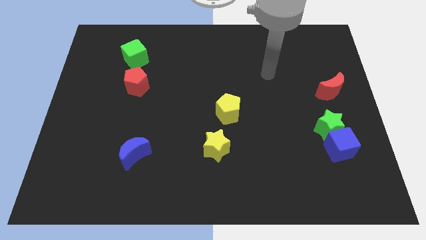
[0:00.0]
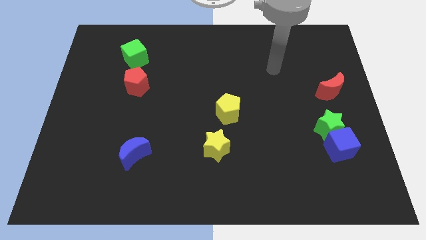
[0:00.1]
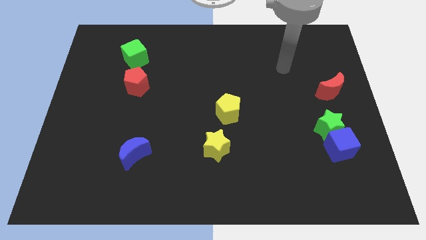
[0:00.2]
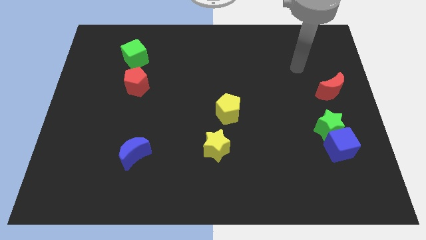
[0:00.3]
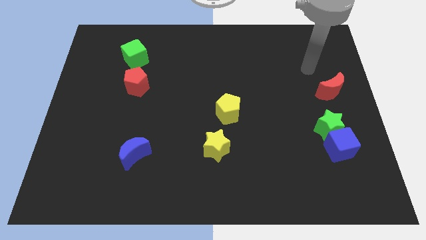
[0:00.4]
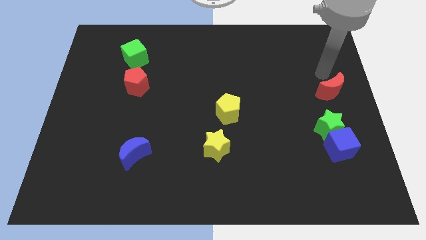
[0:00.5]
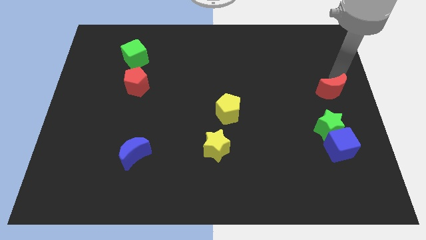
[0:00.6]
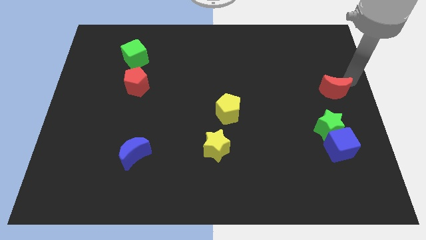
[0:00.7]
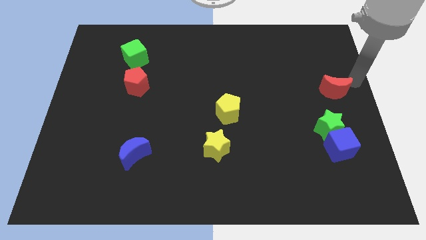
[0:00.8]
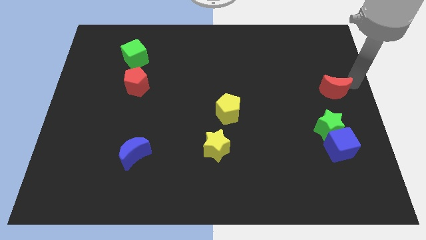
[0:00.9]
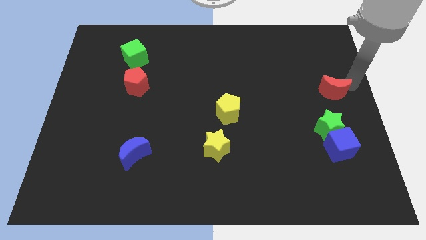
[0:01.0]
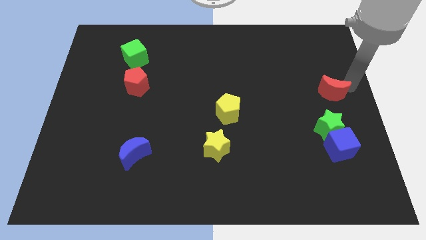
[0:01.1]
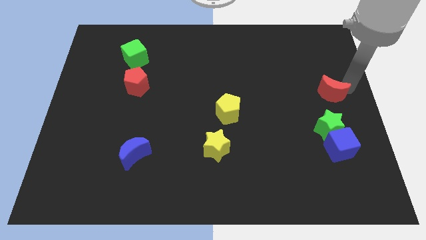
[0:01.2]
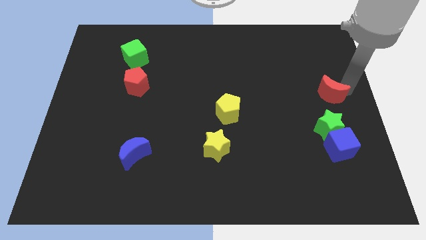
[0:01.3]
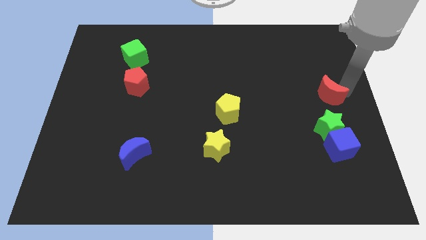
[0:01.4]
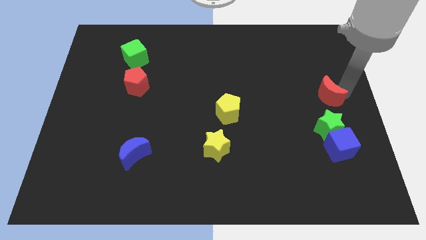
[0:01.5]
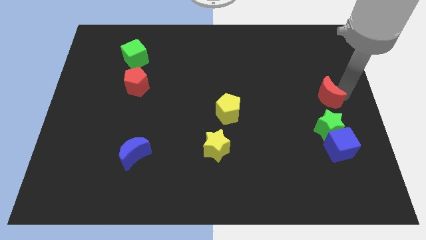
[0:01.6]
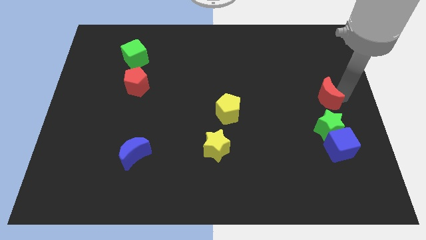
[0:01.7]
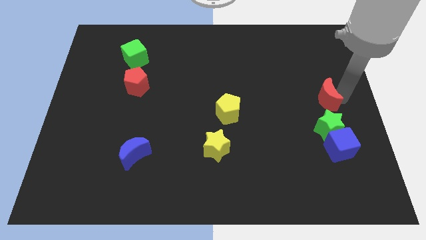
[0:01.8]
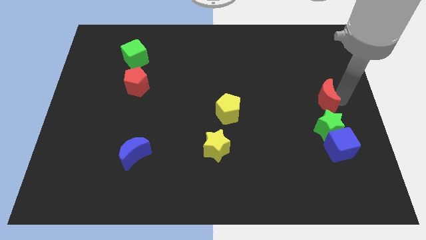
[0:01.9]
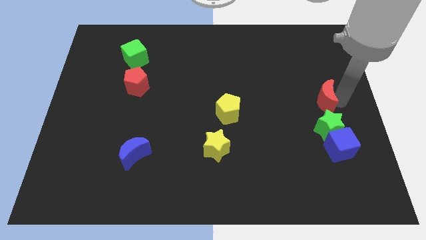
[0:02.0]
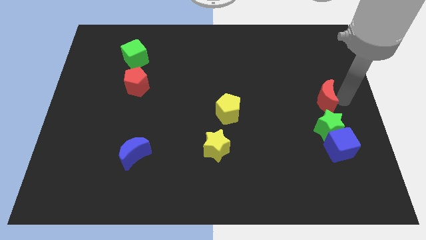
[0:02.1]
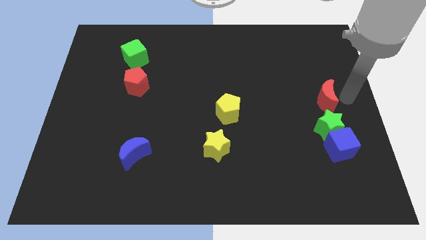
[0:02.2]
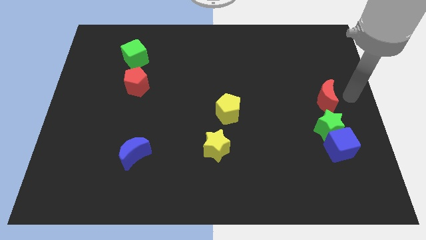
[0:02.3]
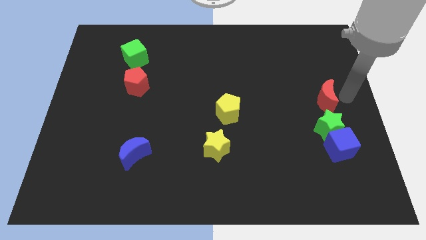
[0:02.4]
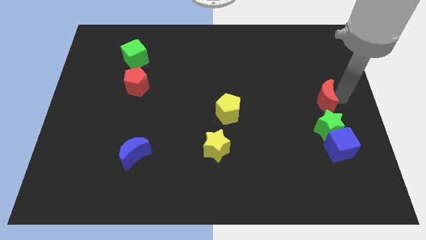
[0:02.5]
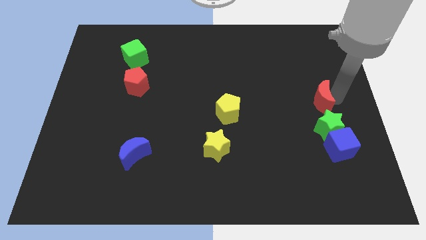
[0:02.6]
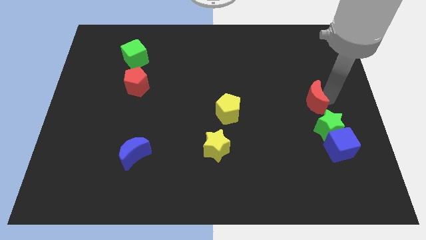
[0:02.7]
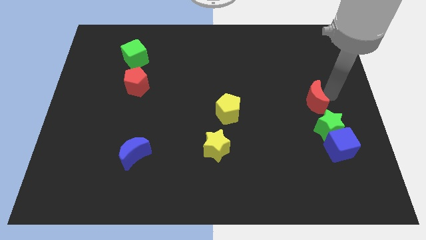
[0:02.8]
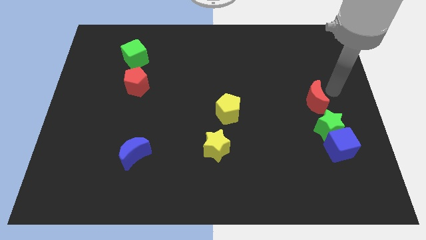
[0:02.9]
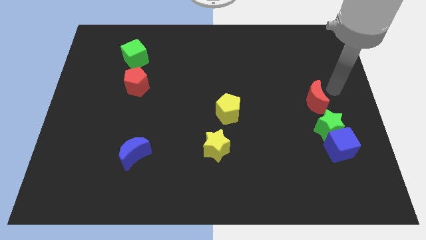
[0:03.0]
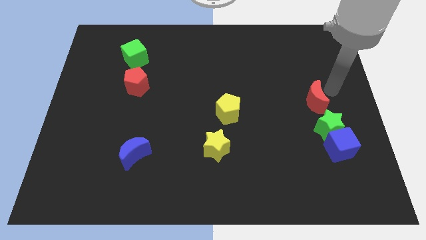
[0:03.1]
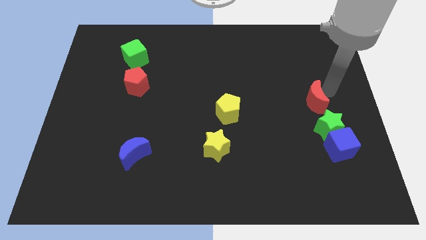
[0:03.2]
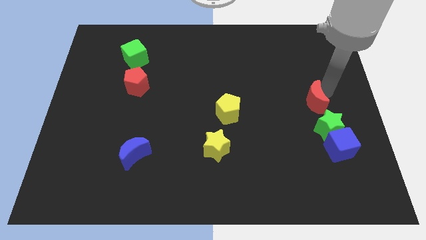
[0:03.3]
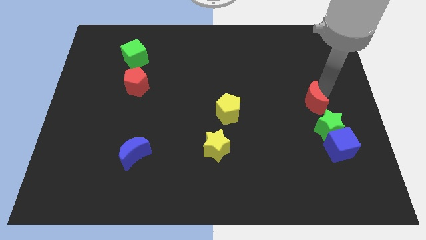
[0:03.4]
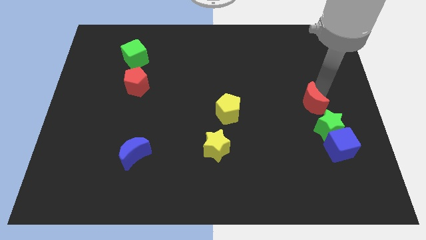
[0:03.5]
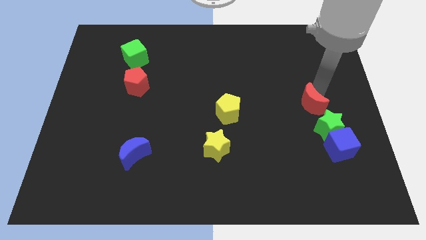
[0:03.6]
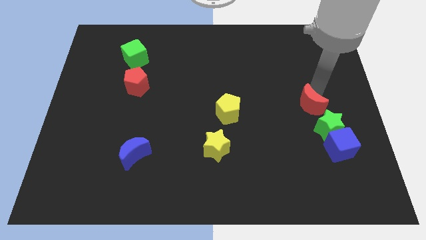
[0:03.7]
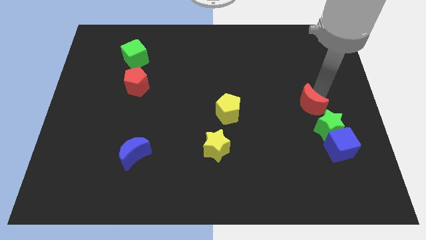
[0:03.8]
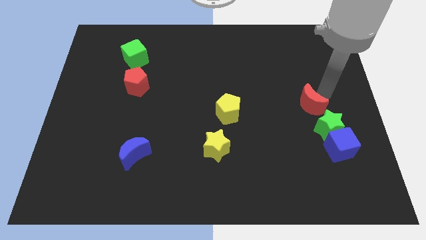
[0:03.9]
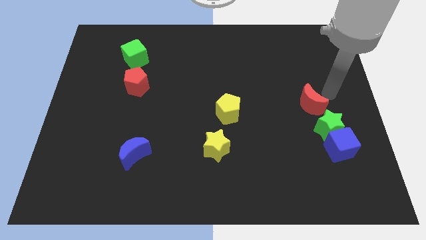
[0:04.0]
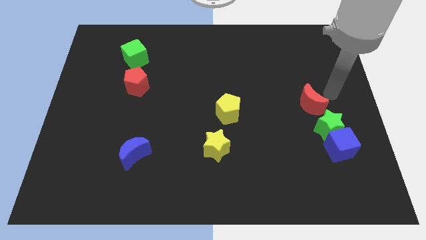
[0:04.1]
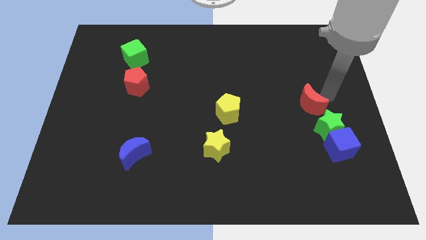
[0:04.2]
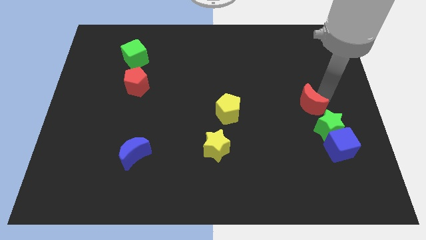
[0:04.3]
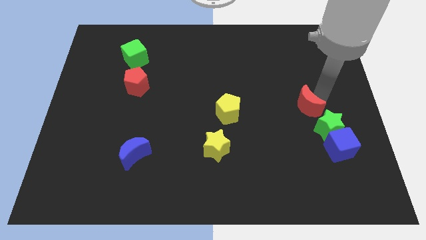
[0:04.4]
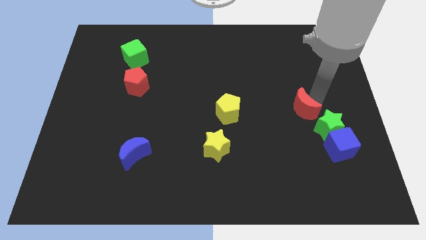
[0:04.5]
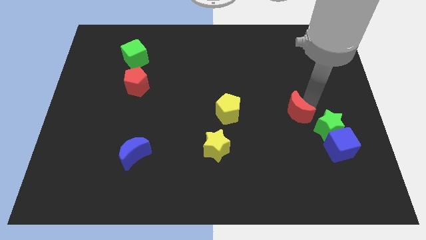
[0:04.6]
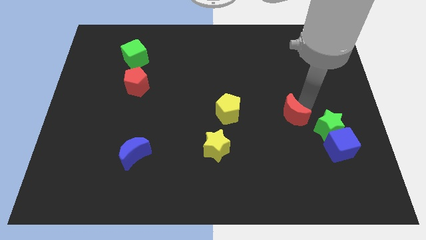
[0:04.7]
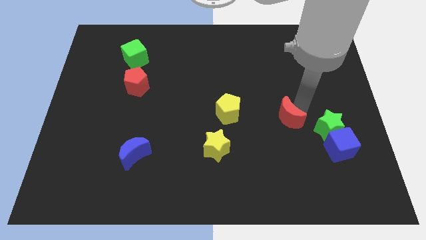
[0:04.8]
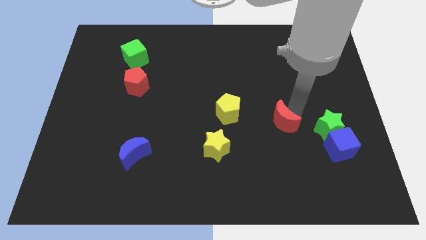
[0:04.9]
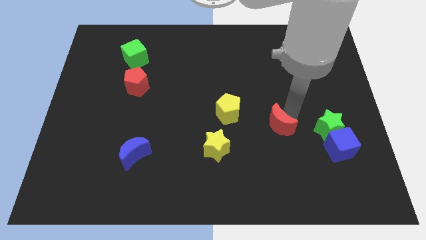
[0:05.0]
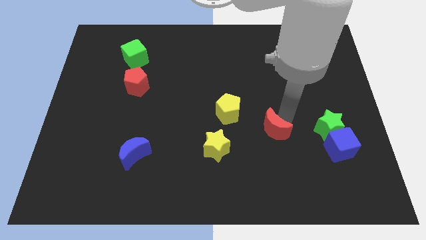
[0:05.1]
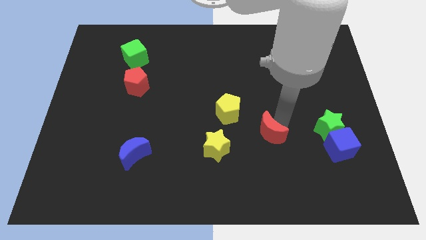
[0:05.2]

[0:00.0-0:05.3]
slide the red moon diagonally down and left

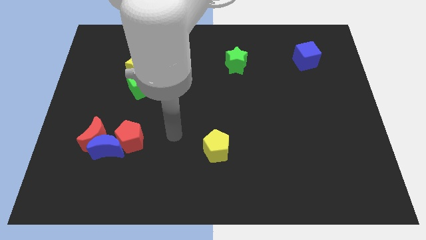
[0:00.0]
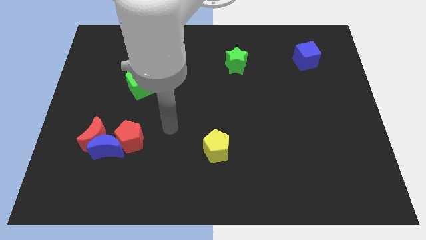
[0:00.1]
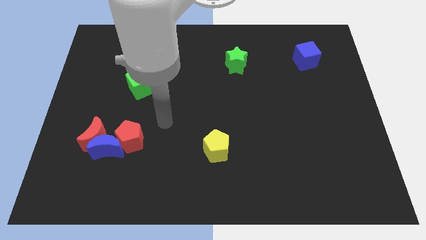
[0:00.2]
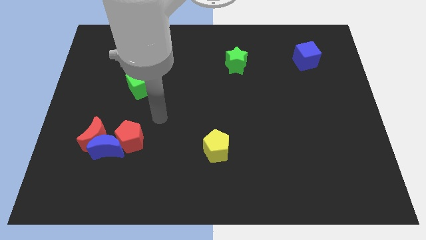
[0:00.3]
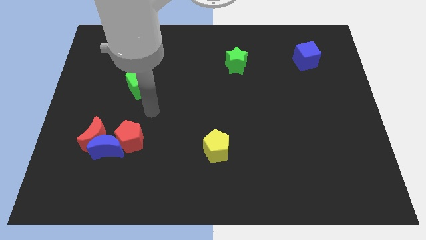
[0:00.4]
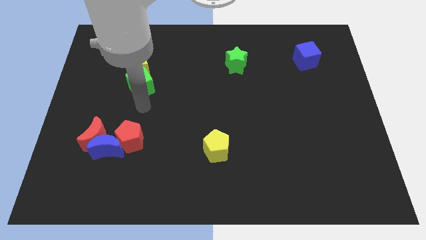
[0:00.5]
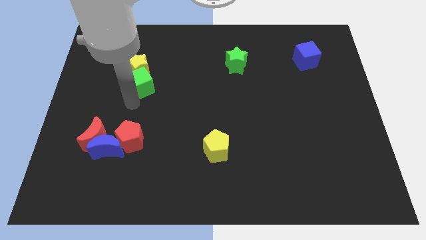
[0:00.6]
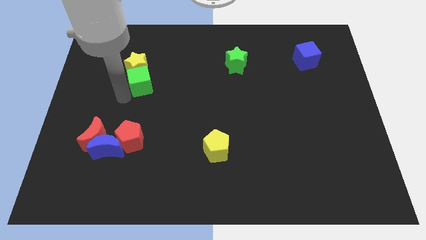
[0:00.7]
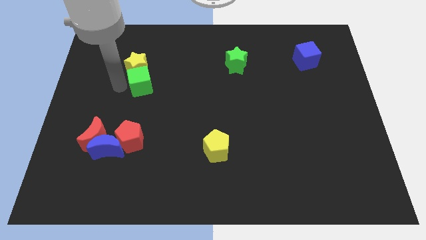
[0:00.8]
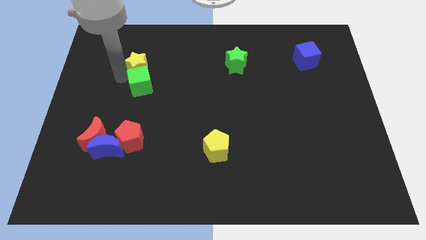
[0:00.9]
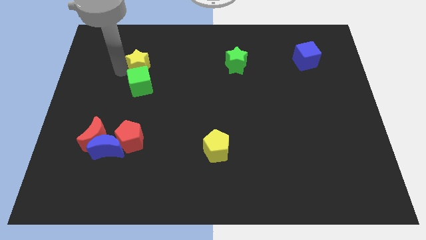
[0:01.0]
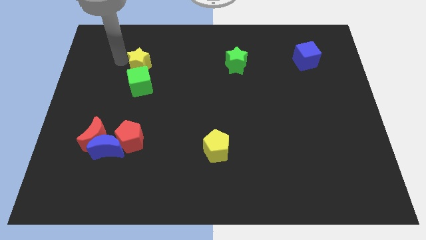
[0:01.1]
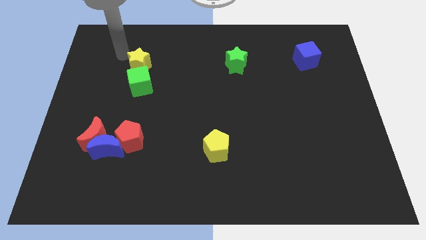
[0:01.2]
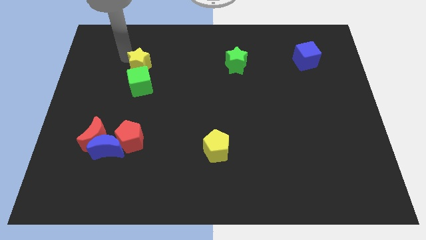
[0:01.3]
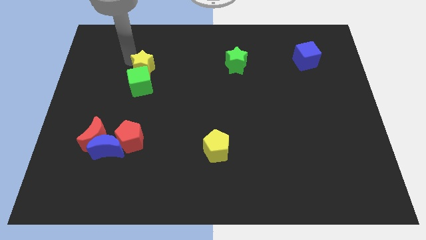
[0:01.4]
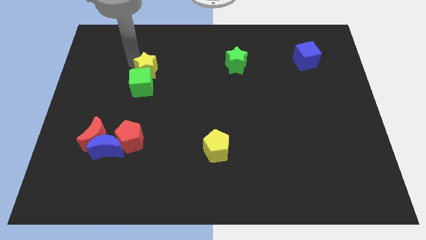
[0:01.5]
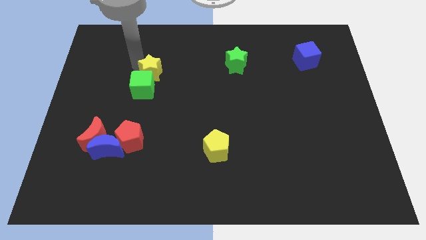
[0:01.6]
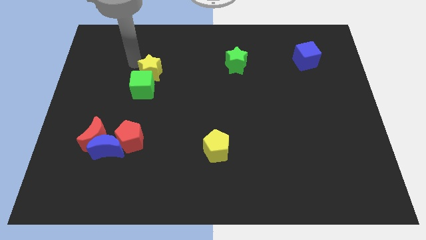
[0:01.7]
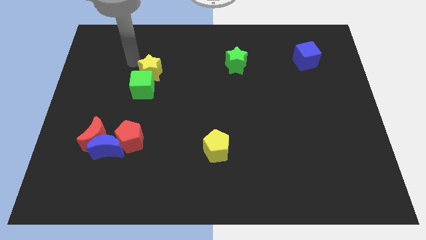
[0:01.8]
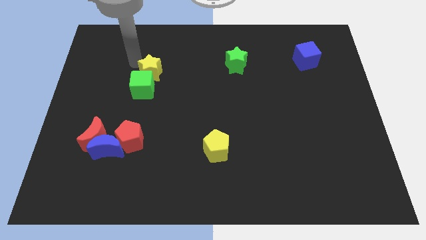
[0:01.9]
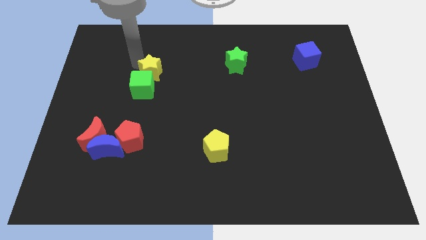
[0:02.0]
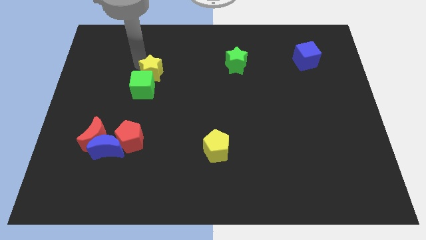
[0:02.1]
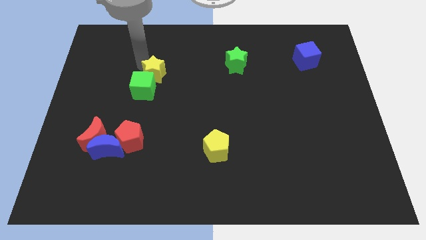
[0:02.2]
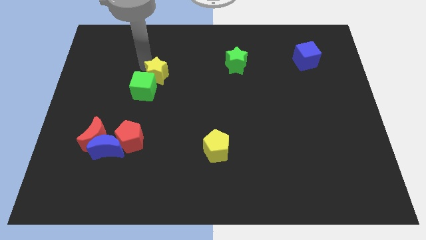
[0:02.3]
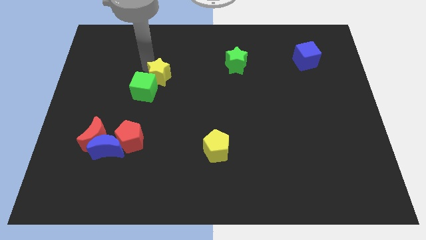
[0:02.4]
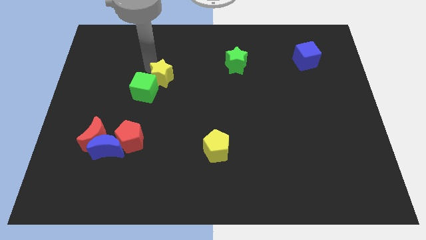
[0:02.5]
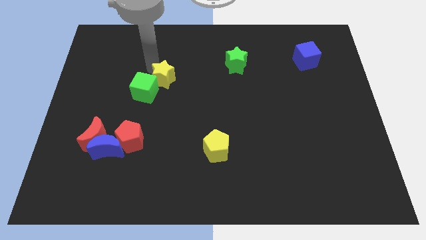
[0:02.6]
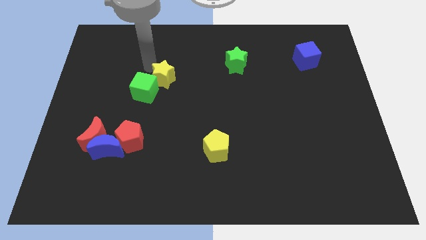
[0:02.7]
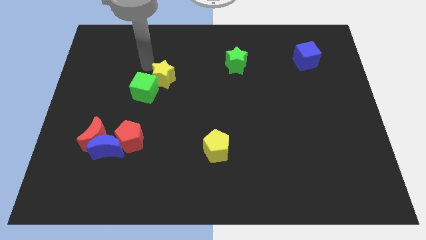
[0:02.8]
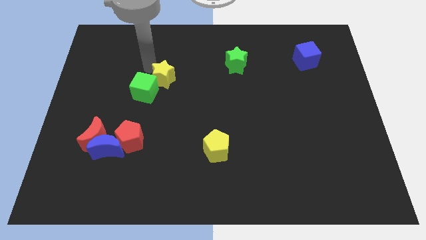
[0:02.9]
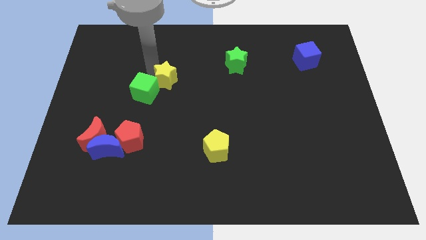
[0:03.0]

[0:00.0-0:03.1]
slightly move the yellow star downwards and then to the right
